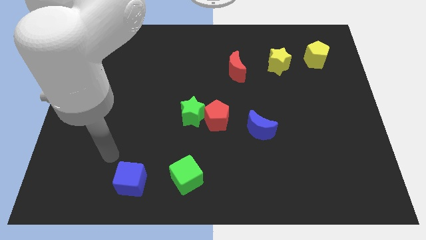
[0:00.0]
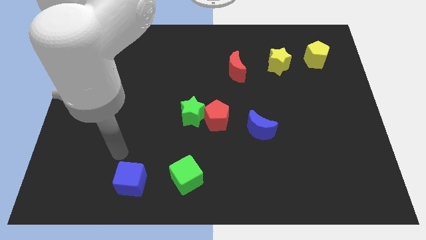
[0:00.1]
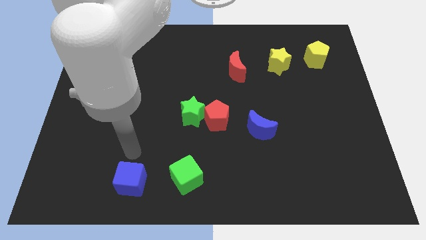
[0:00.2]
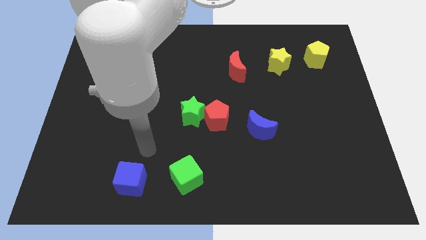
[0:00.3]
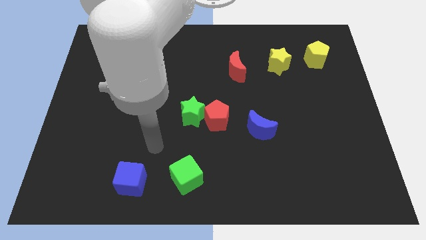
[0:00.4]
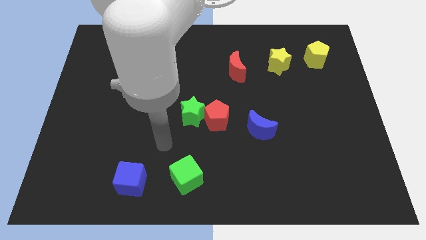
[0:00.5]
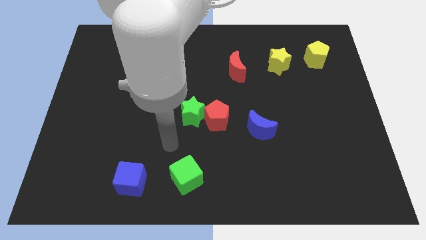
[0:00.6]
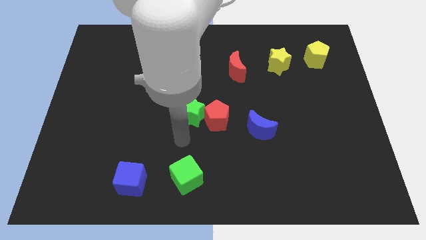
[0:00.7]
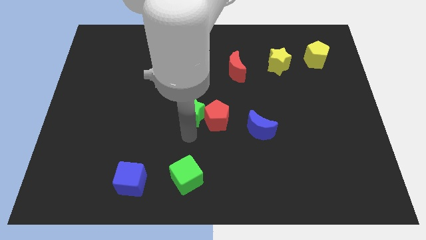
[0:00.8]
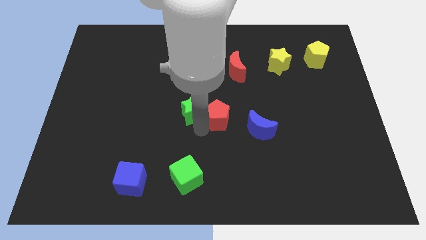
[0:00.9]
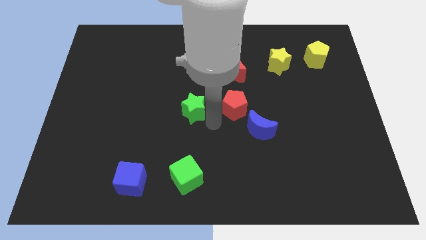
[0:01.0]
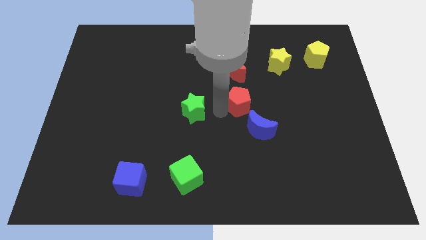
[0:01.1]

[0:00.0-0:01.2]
move the green star away from the red pentagon

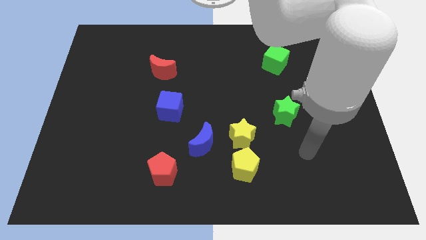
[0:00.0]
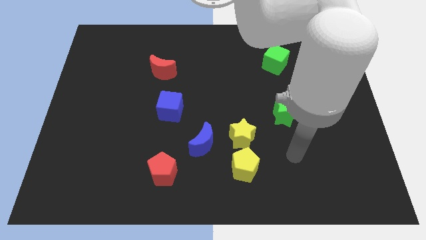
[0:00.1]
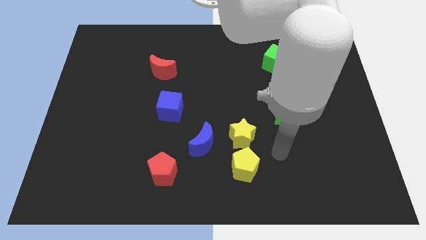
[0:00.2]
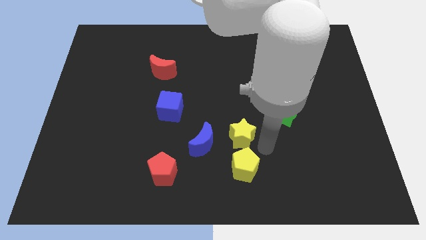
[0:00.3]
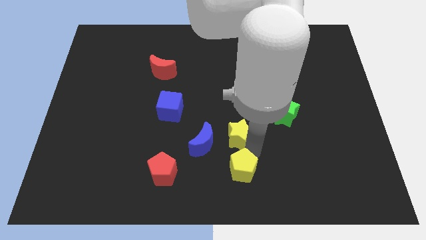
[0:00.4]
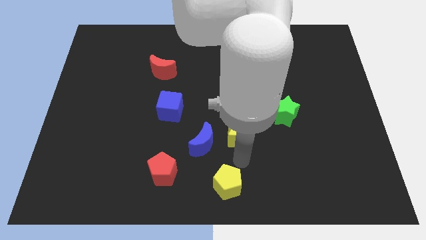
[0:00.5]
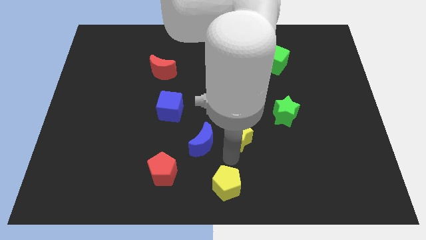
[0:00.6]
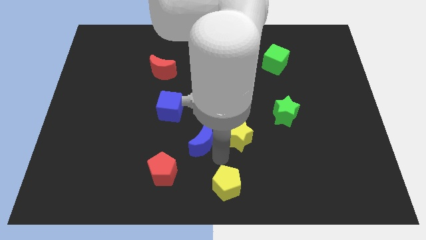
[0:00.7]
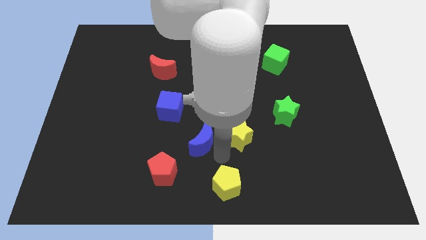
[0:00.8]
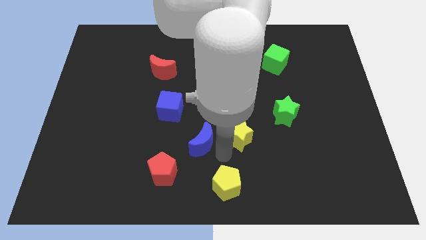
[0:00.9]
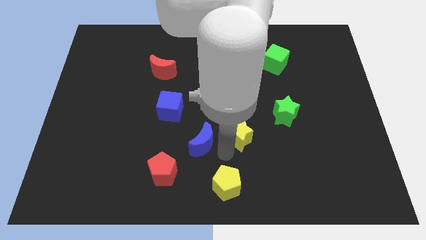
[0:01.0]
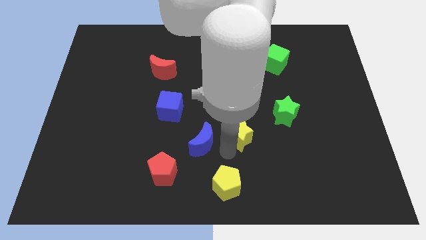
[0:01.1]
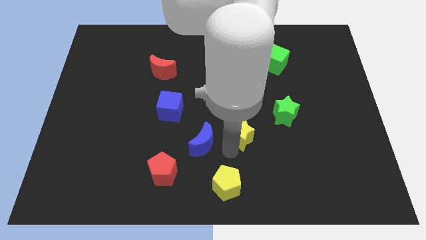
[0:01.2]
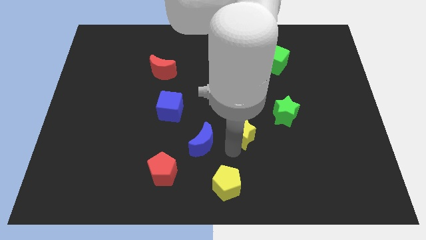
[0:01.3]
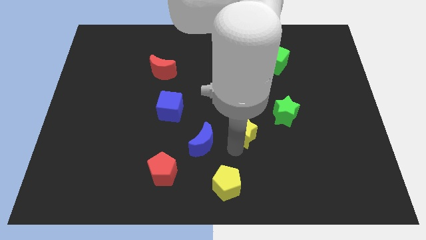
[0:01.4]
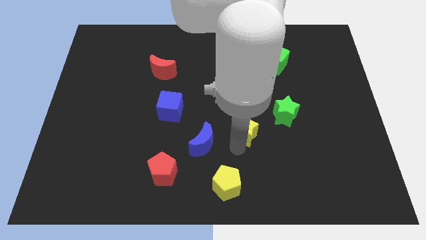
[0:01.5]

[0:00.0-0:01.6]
pull the yellow star apart from the yellow pentagon and blue moon

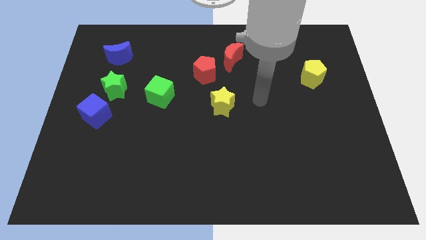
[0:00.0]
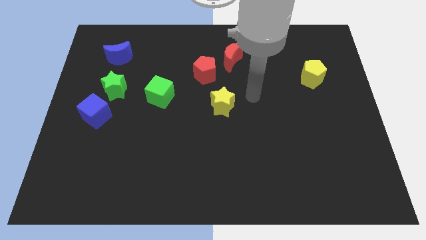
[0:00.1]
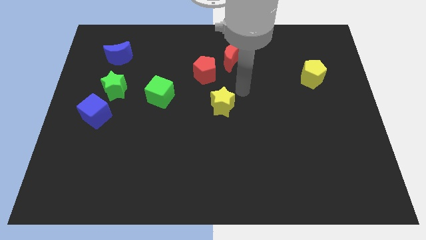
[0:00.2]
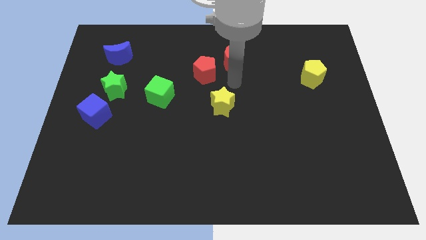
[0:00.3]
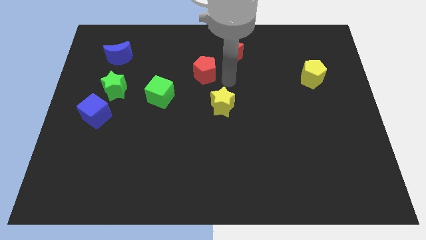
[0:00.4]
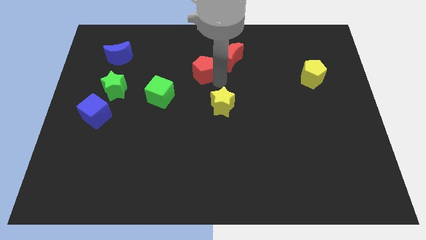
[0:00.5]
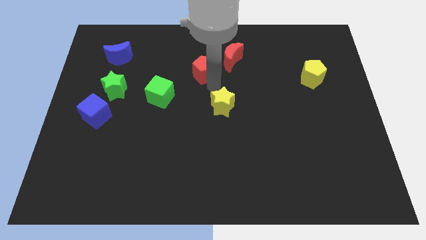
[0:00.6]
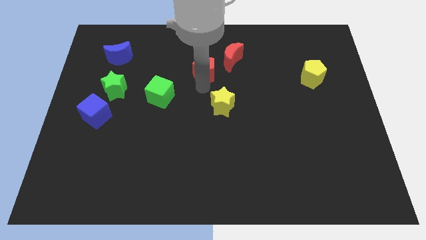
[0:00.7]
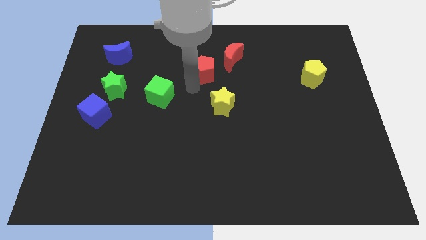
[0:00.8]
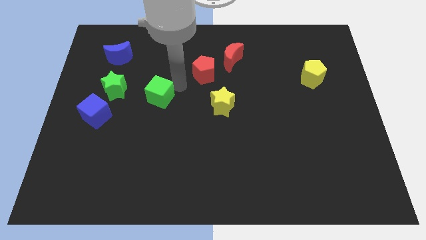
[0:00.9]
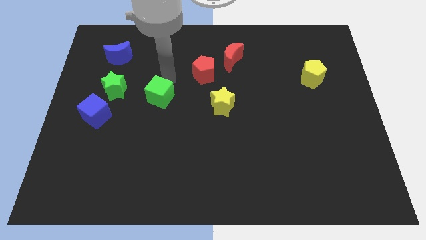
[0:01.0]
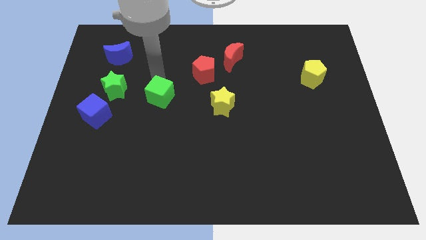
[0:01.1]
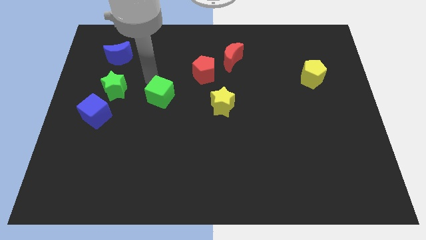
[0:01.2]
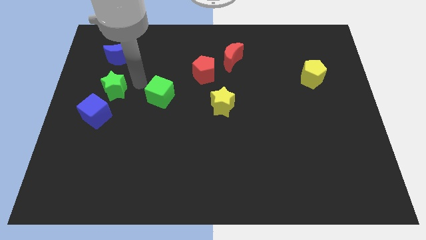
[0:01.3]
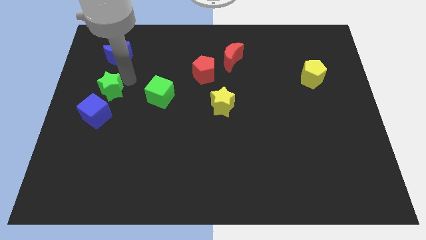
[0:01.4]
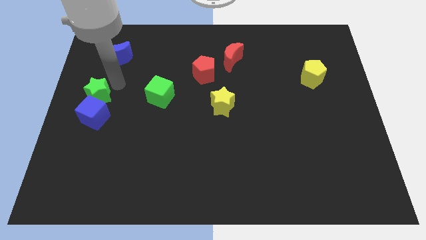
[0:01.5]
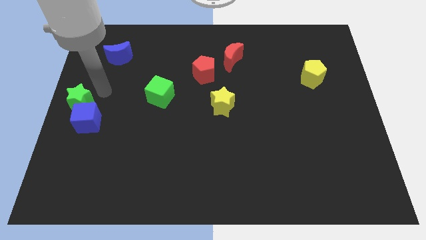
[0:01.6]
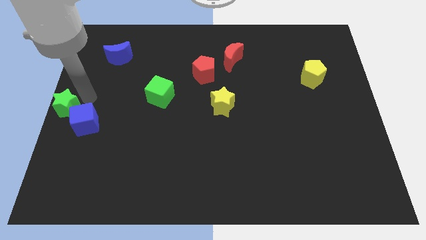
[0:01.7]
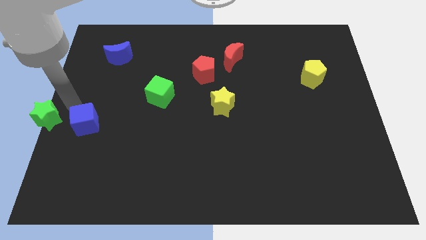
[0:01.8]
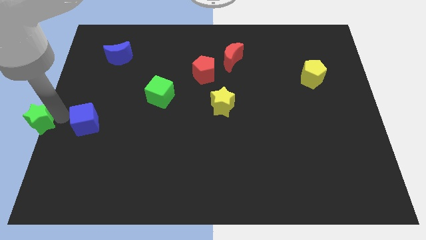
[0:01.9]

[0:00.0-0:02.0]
separate the blue cube from the green star

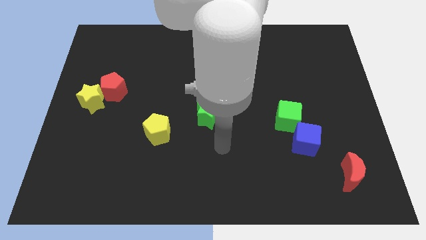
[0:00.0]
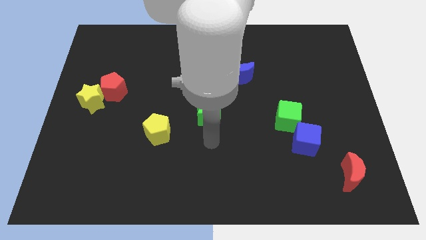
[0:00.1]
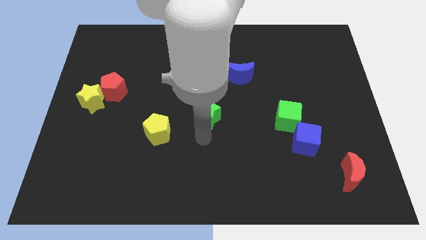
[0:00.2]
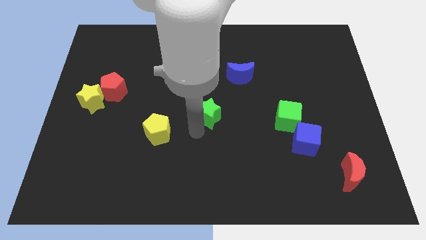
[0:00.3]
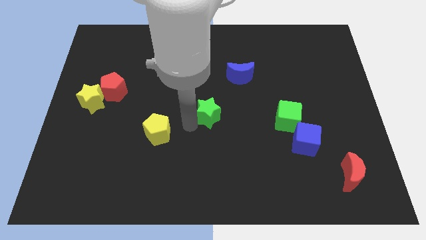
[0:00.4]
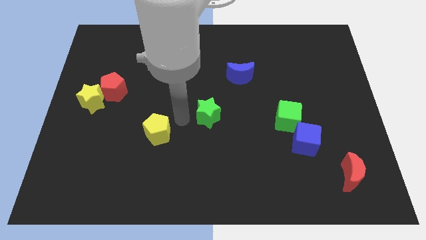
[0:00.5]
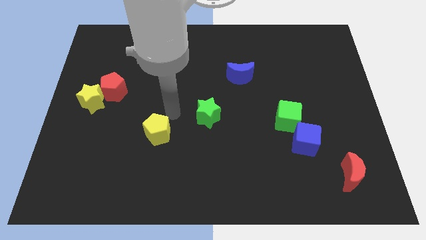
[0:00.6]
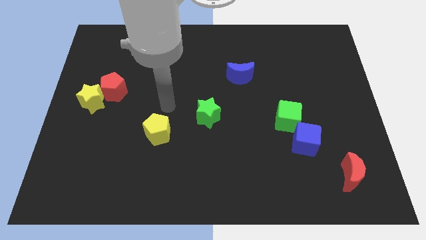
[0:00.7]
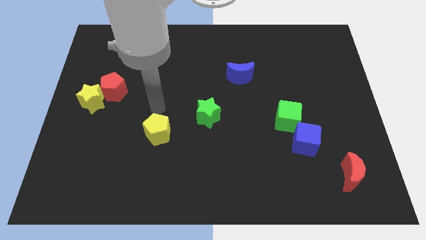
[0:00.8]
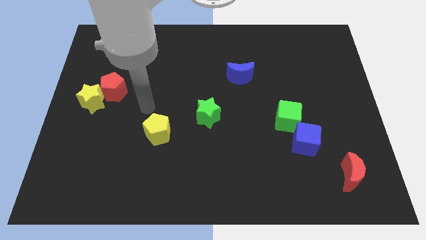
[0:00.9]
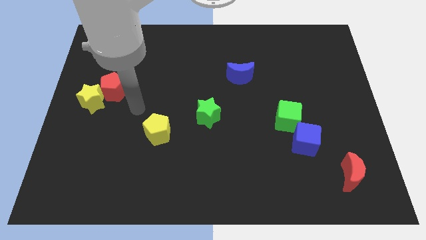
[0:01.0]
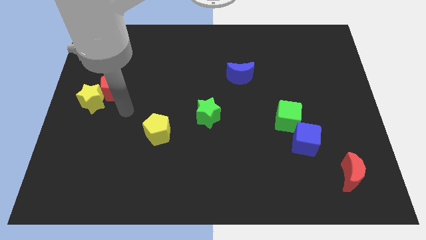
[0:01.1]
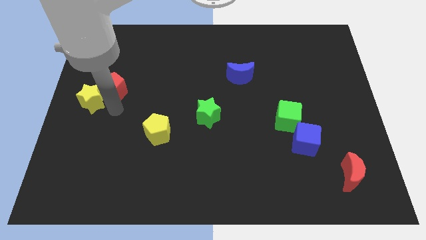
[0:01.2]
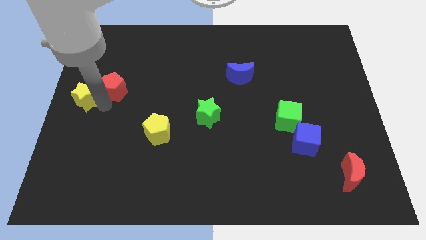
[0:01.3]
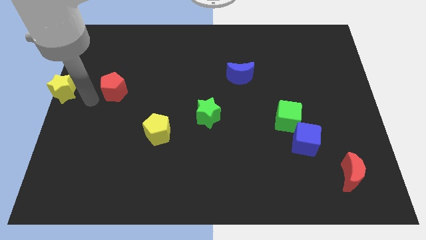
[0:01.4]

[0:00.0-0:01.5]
separate the red pentagon from the yellow star

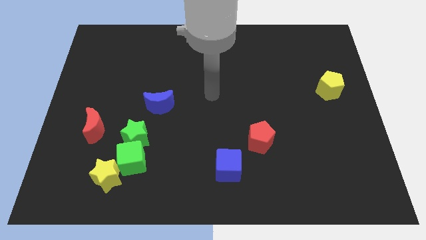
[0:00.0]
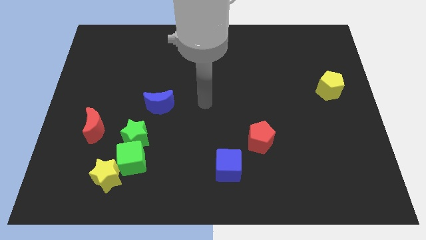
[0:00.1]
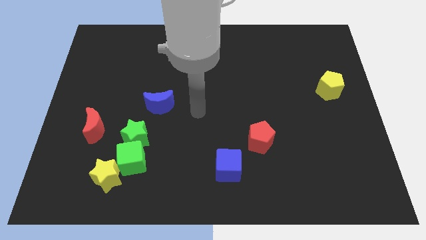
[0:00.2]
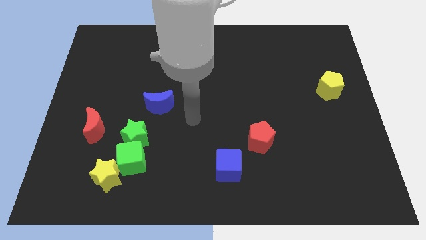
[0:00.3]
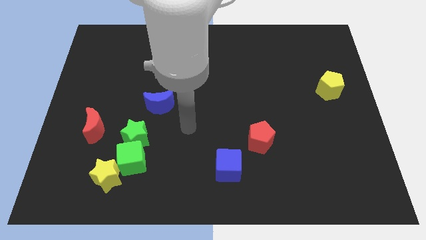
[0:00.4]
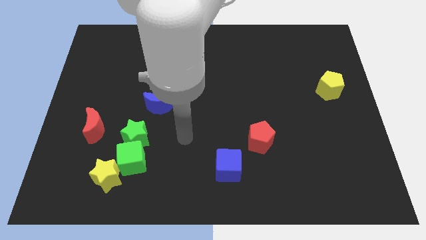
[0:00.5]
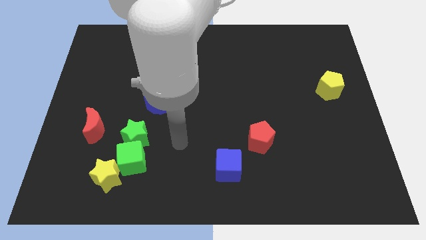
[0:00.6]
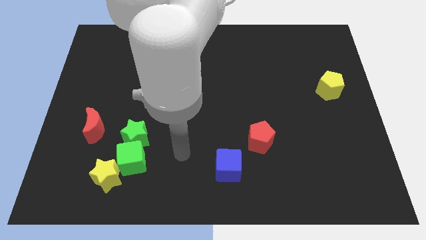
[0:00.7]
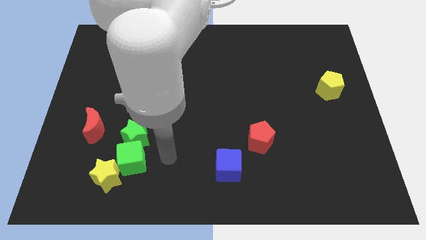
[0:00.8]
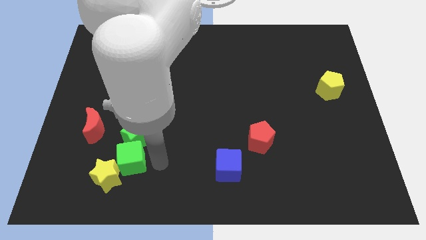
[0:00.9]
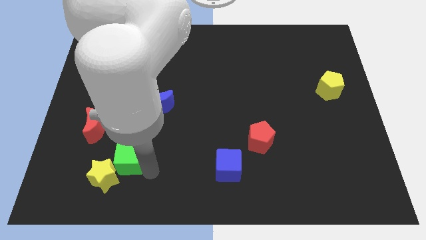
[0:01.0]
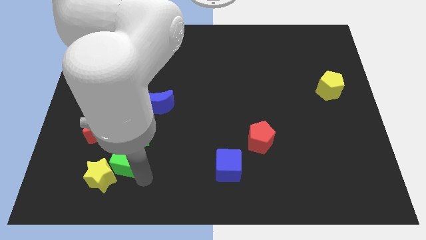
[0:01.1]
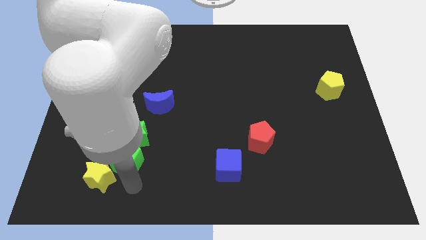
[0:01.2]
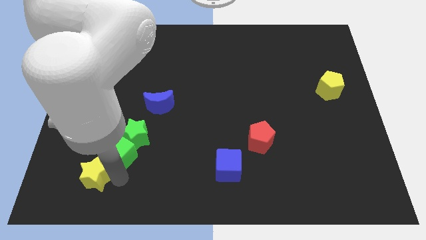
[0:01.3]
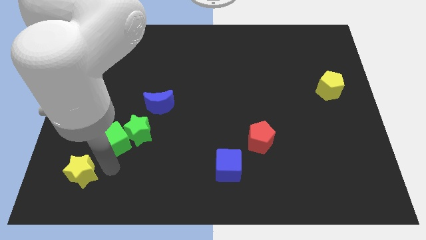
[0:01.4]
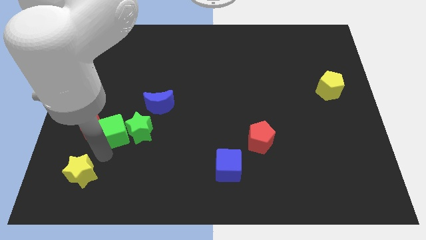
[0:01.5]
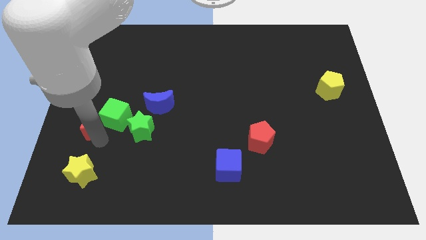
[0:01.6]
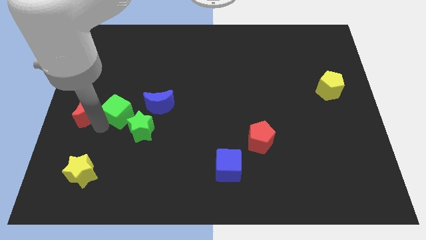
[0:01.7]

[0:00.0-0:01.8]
separate the green cube from the green star and yellow star

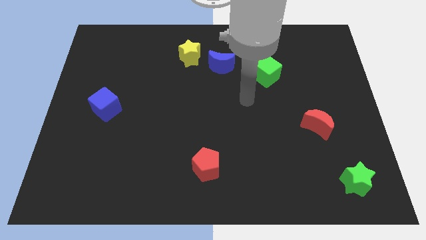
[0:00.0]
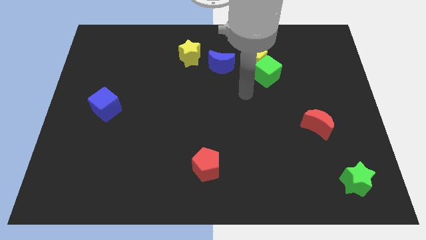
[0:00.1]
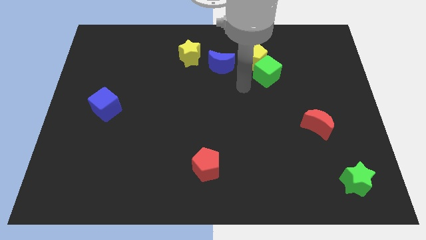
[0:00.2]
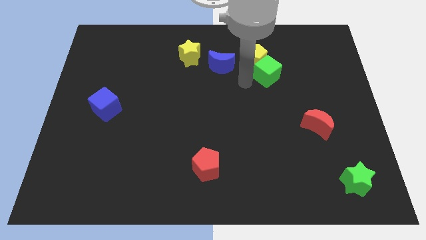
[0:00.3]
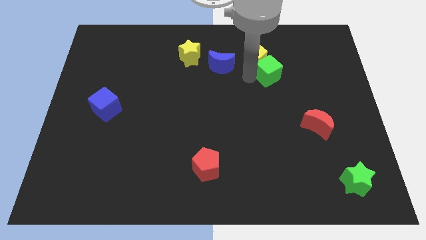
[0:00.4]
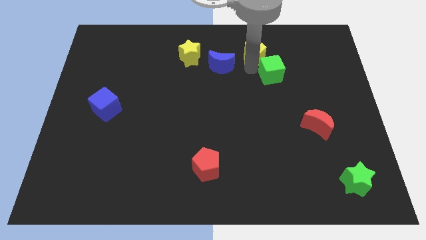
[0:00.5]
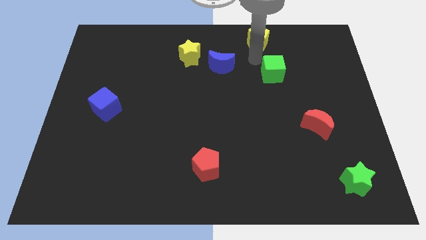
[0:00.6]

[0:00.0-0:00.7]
separate the green cube from the yellow pentagon

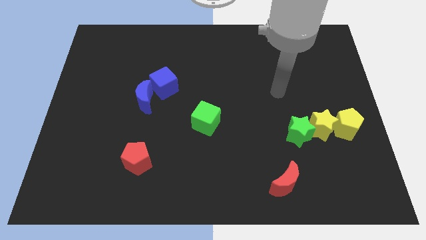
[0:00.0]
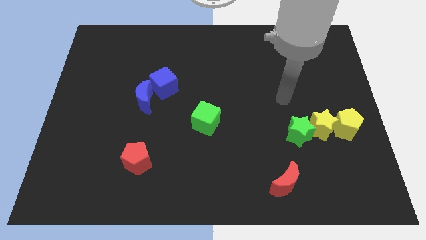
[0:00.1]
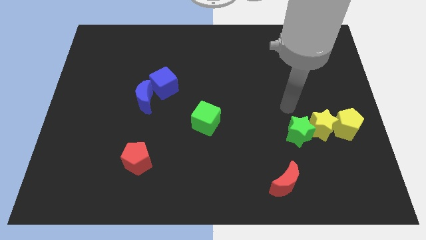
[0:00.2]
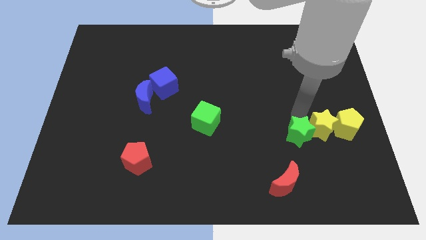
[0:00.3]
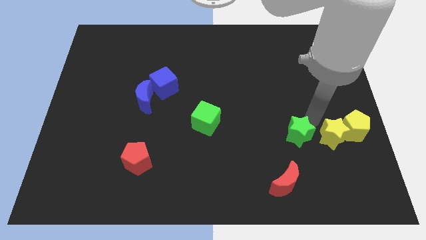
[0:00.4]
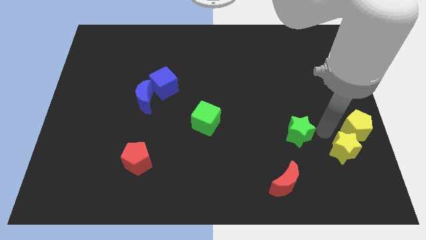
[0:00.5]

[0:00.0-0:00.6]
separate the green star from the yellow star
